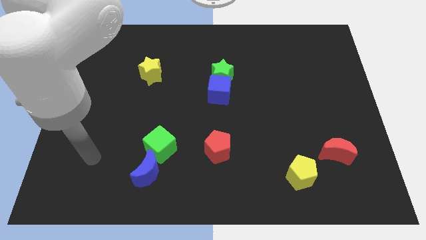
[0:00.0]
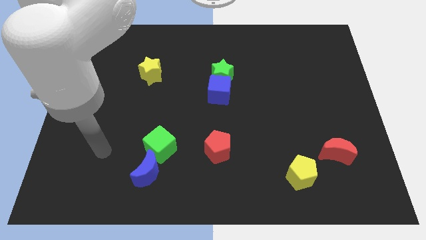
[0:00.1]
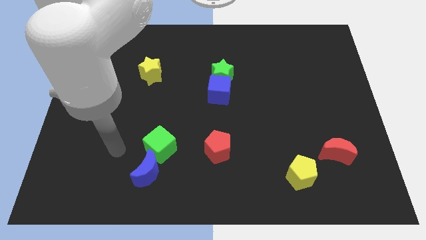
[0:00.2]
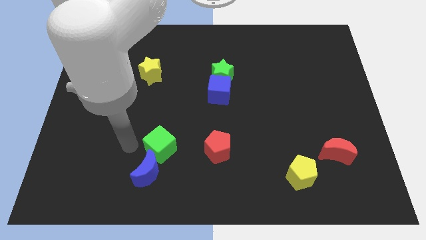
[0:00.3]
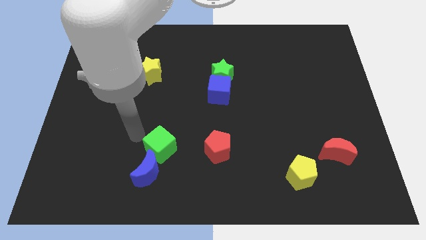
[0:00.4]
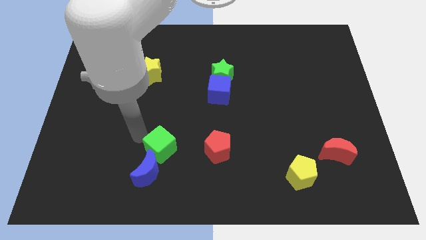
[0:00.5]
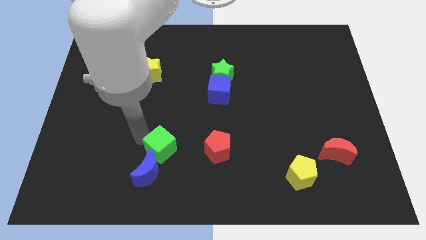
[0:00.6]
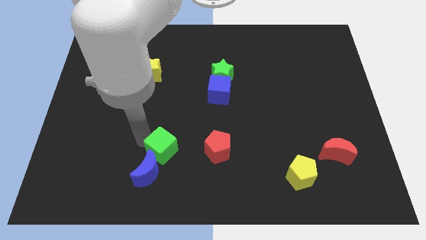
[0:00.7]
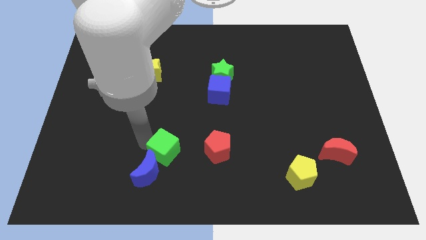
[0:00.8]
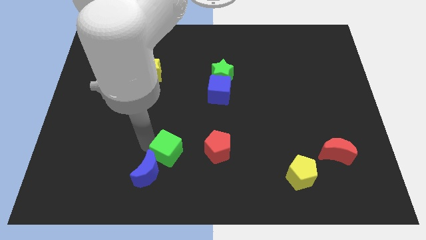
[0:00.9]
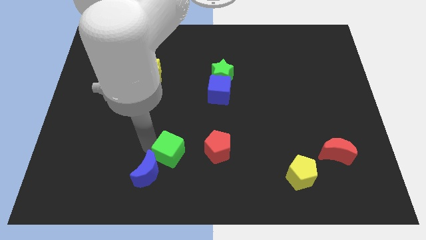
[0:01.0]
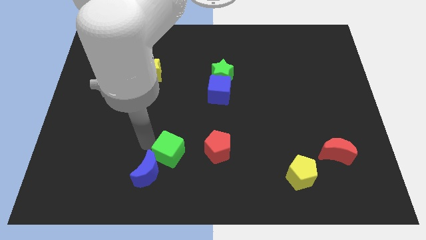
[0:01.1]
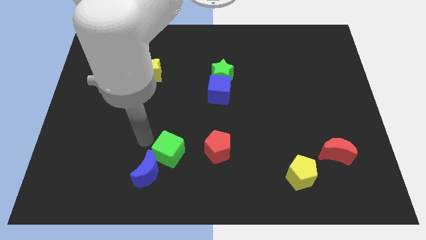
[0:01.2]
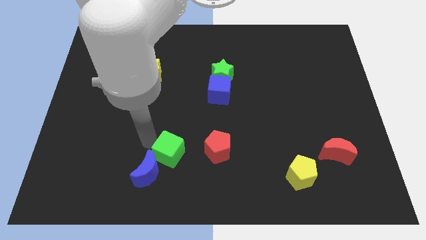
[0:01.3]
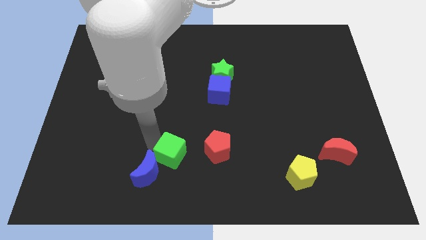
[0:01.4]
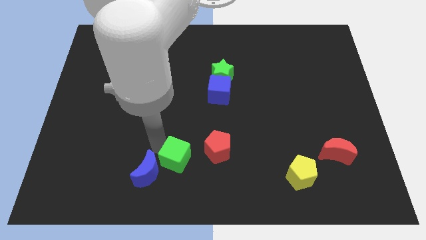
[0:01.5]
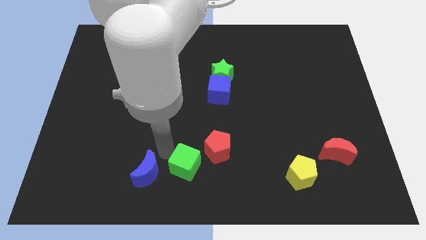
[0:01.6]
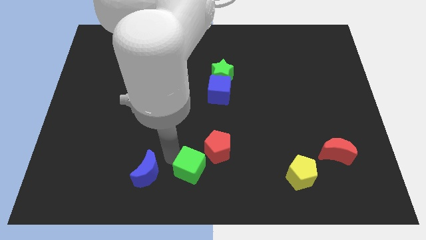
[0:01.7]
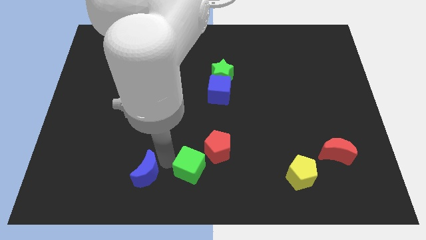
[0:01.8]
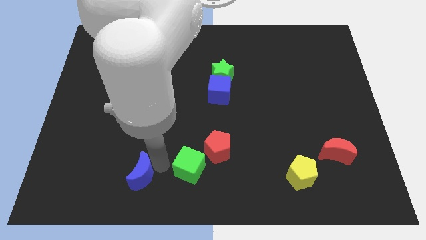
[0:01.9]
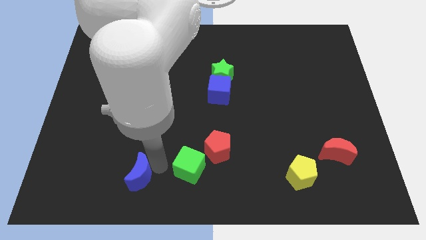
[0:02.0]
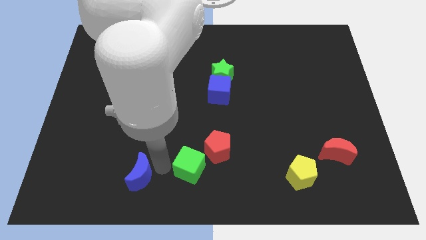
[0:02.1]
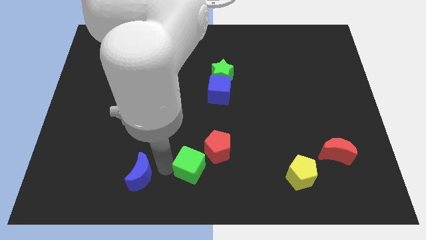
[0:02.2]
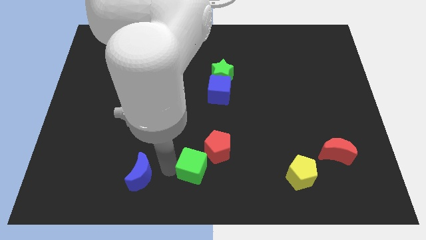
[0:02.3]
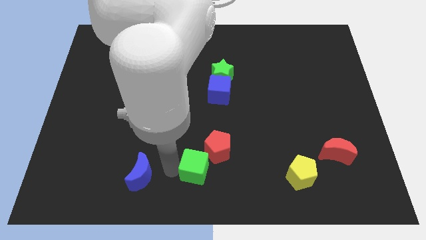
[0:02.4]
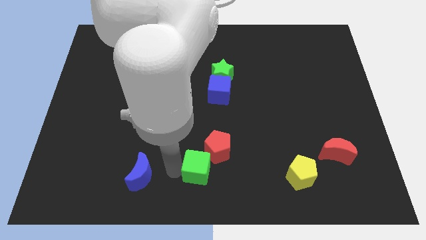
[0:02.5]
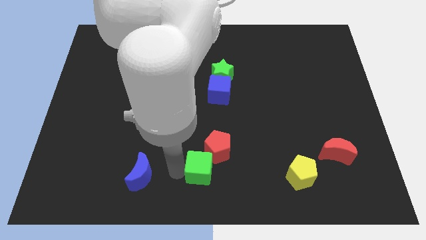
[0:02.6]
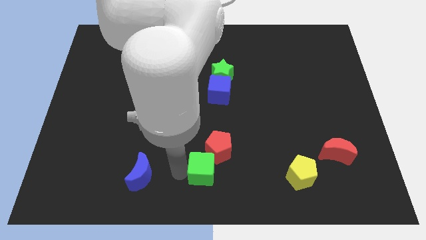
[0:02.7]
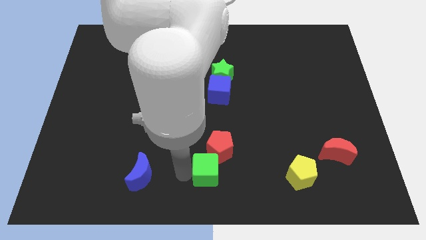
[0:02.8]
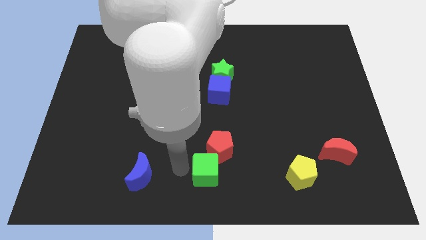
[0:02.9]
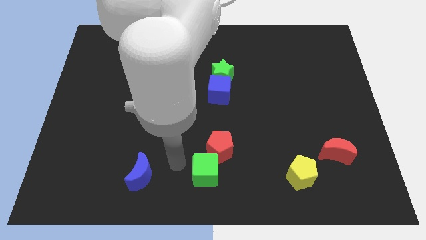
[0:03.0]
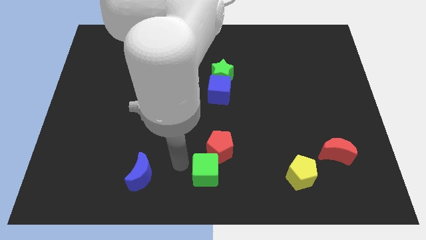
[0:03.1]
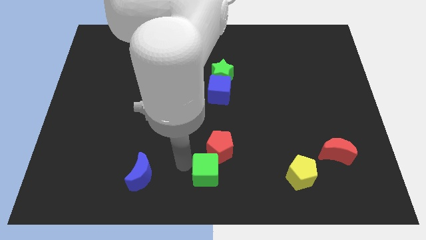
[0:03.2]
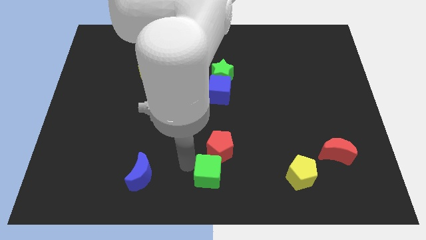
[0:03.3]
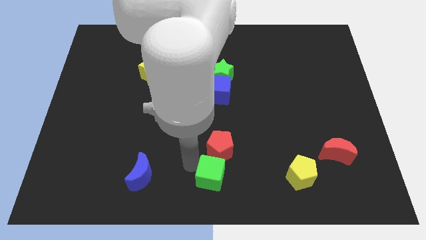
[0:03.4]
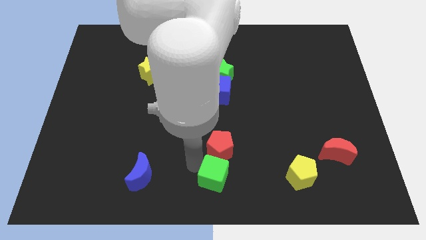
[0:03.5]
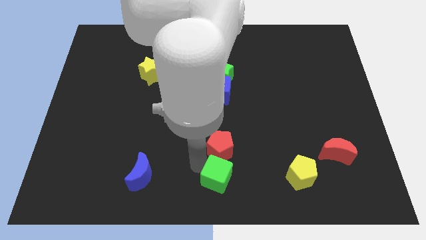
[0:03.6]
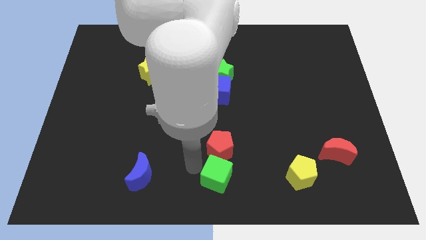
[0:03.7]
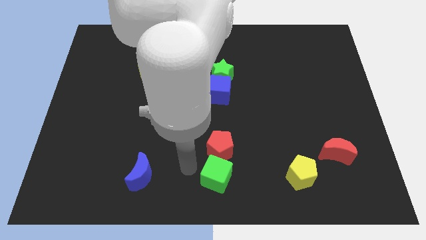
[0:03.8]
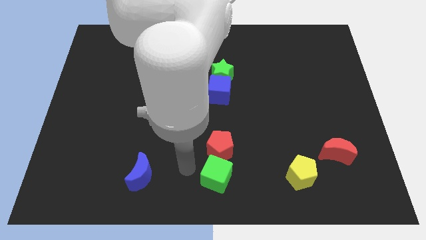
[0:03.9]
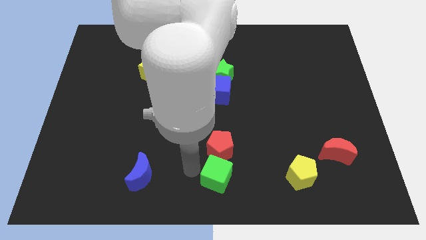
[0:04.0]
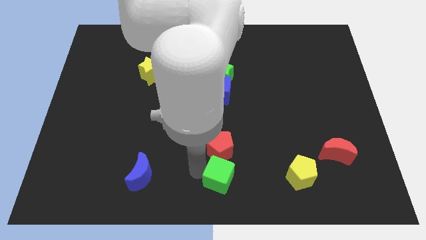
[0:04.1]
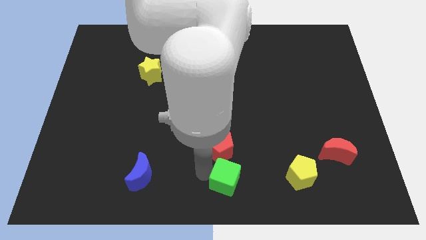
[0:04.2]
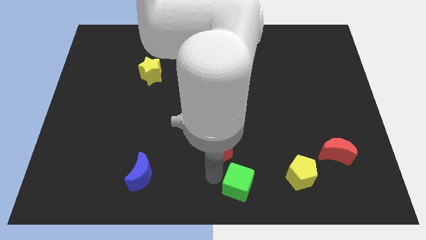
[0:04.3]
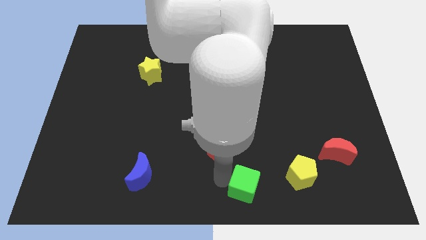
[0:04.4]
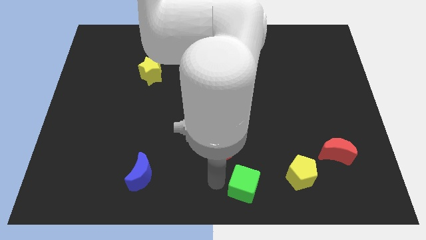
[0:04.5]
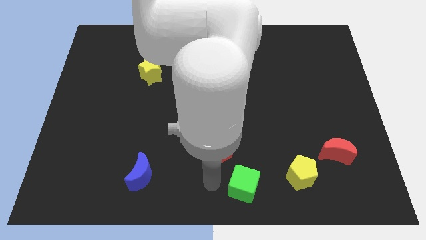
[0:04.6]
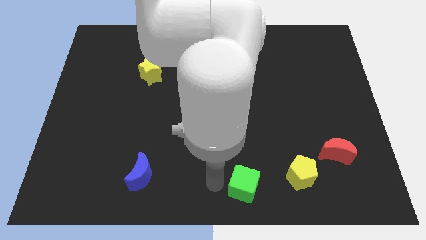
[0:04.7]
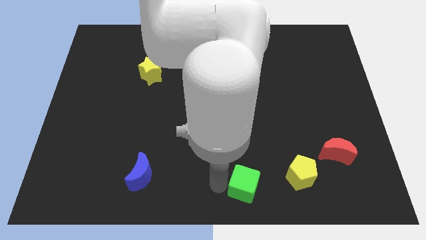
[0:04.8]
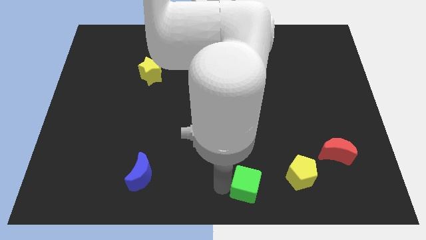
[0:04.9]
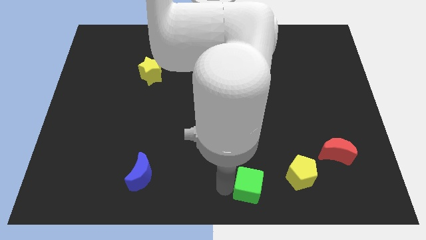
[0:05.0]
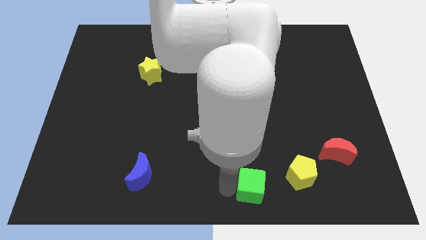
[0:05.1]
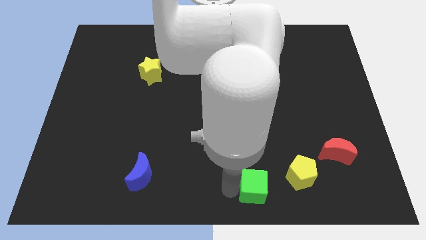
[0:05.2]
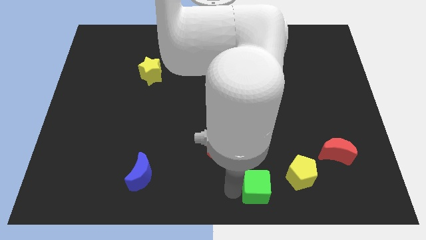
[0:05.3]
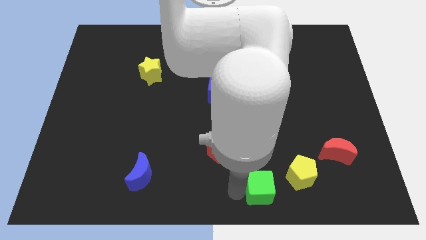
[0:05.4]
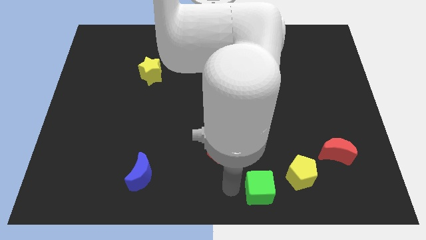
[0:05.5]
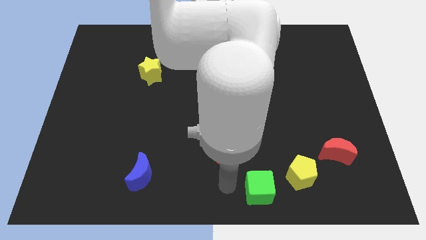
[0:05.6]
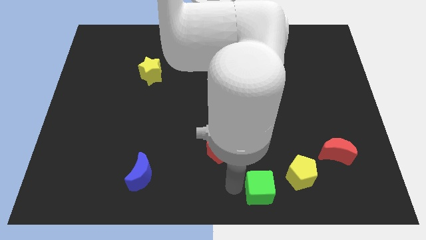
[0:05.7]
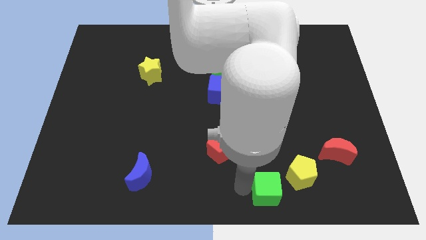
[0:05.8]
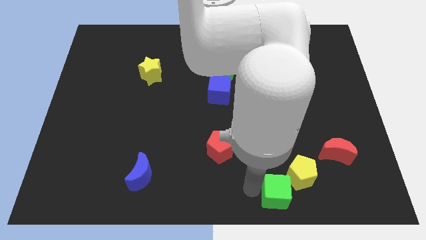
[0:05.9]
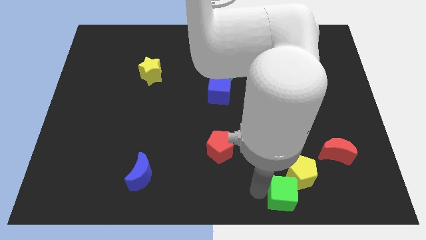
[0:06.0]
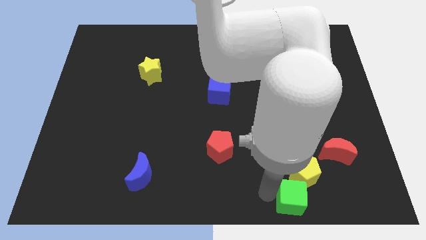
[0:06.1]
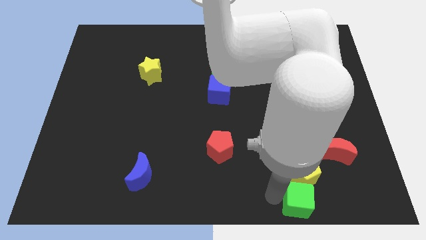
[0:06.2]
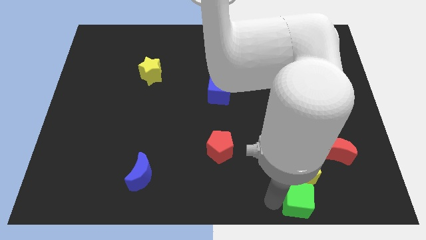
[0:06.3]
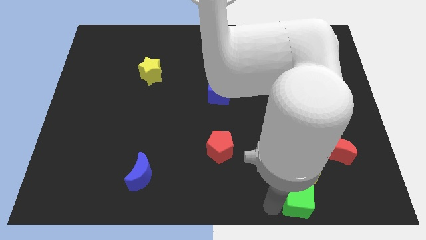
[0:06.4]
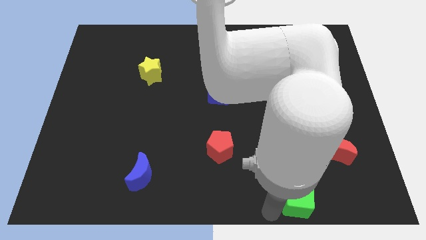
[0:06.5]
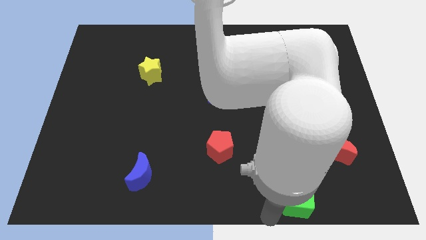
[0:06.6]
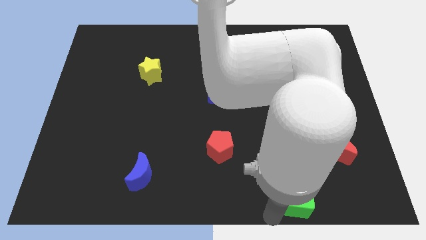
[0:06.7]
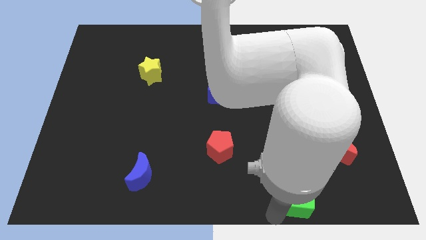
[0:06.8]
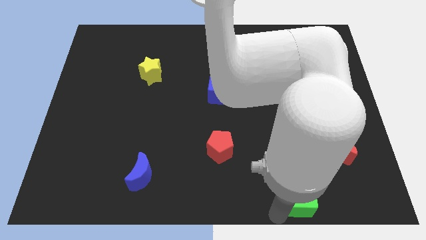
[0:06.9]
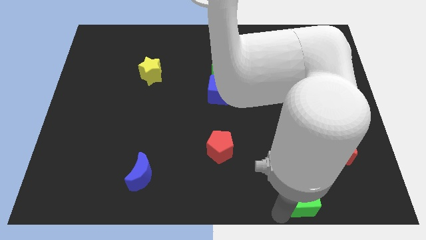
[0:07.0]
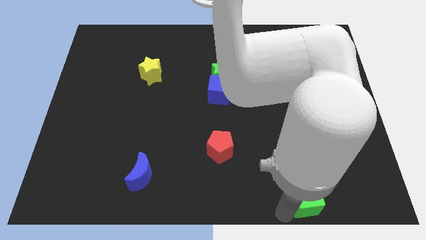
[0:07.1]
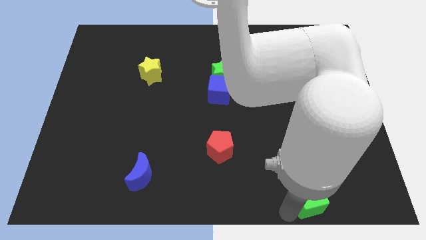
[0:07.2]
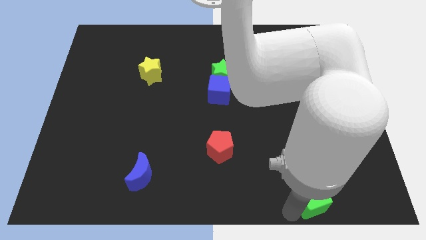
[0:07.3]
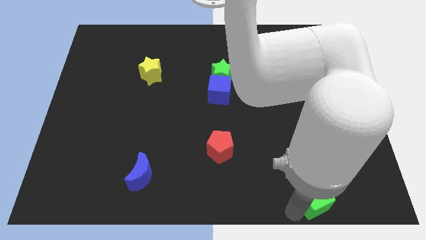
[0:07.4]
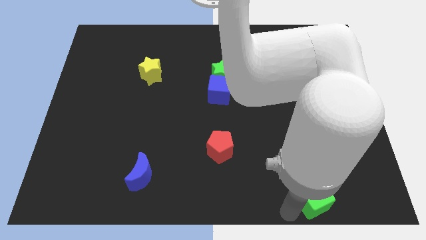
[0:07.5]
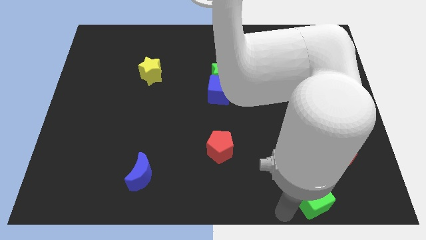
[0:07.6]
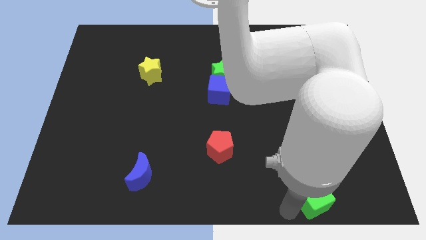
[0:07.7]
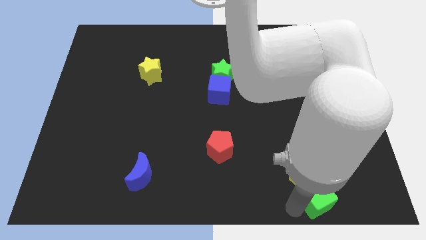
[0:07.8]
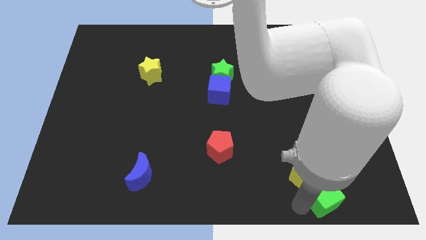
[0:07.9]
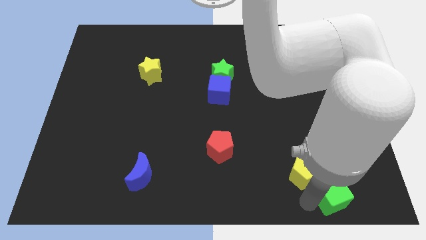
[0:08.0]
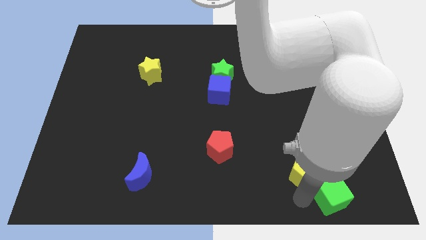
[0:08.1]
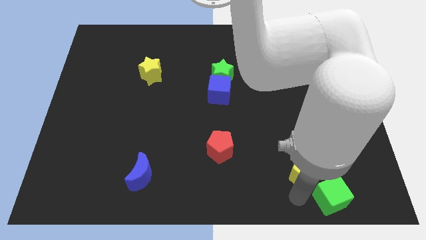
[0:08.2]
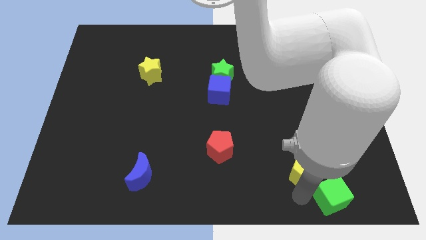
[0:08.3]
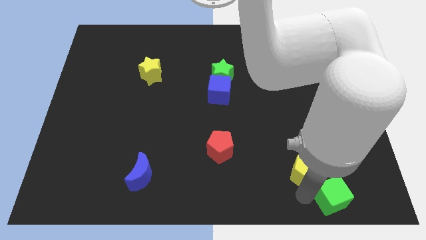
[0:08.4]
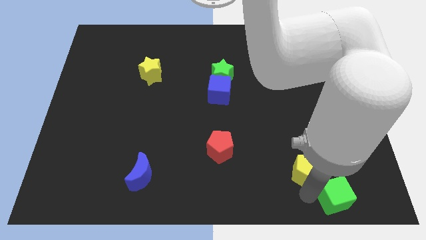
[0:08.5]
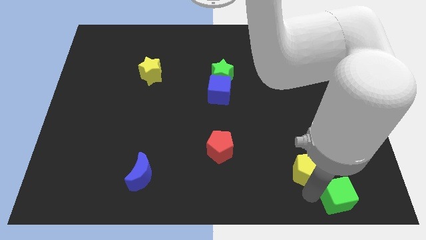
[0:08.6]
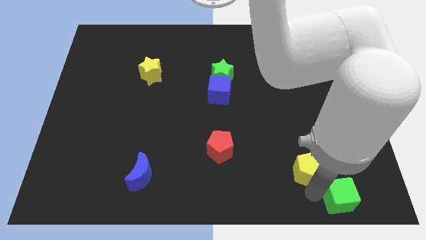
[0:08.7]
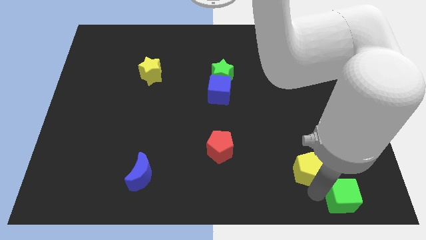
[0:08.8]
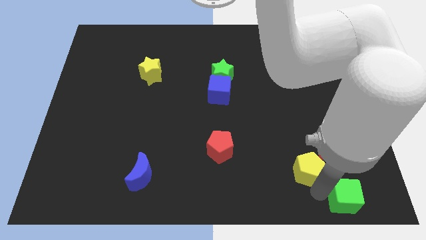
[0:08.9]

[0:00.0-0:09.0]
move the green cube to the bottom right corner
